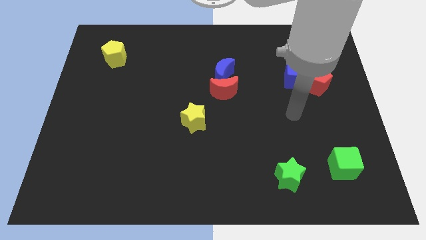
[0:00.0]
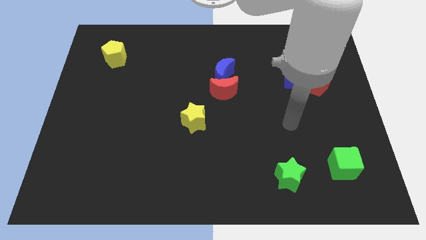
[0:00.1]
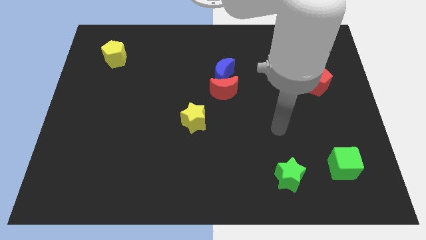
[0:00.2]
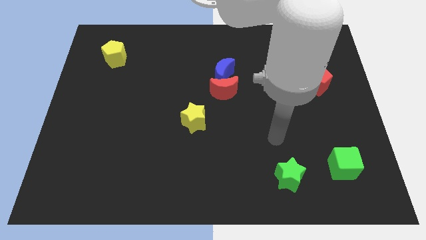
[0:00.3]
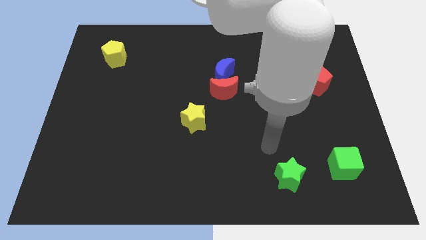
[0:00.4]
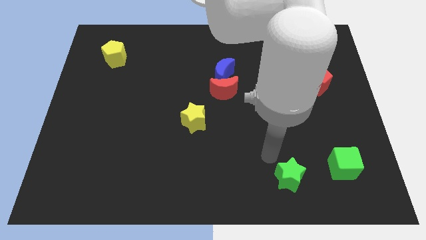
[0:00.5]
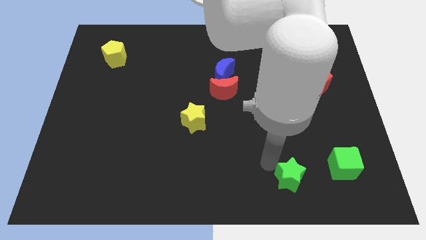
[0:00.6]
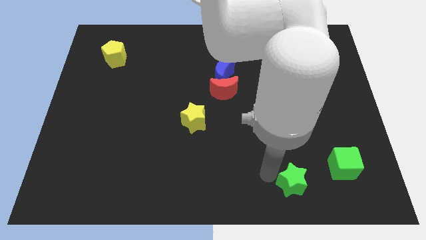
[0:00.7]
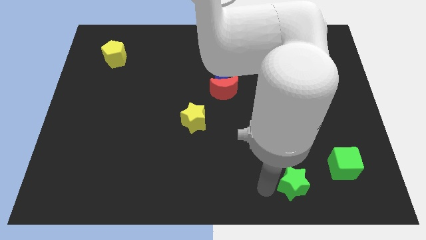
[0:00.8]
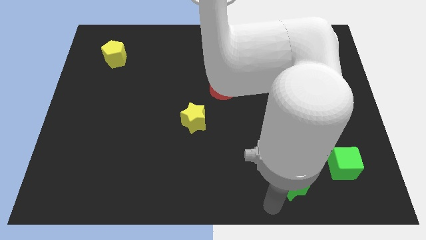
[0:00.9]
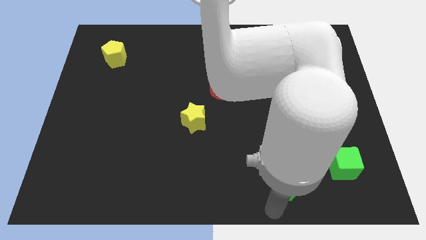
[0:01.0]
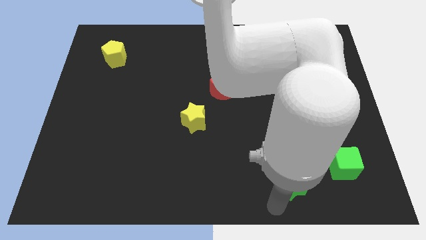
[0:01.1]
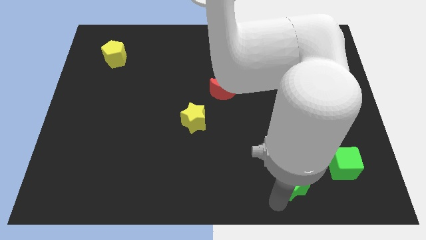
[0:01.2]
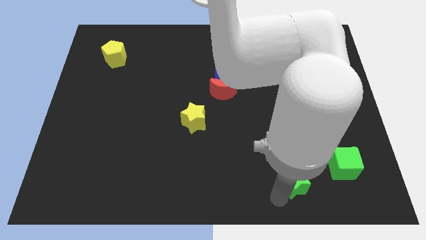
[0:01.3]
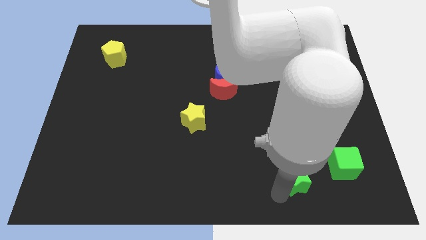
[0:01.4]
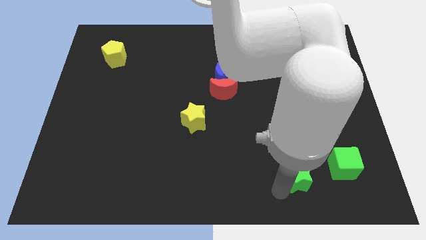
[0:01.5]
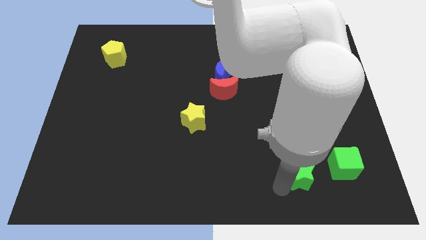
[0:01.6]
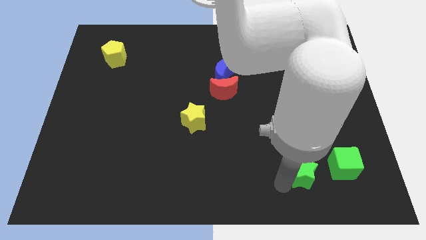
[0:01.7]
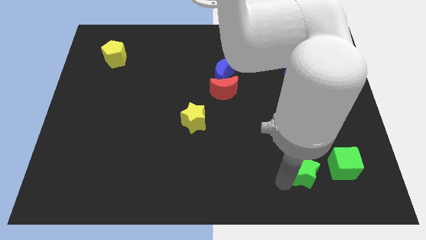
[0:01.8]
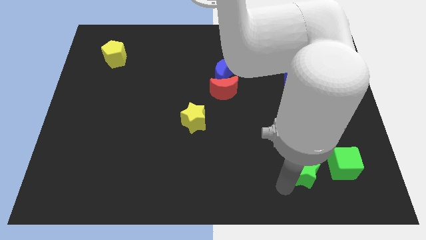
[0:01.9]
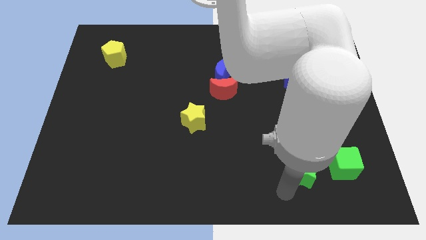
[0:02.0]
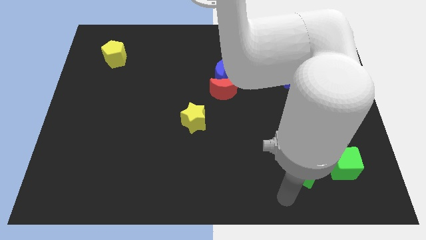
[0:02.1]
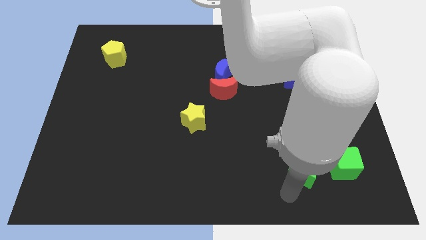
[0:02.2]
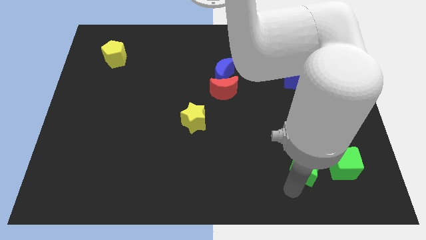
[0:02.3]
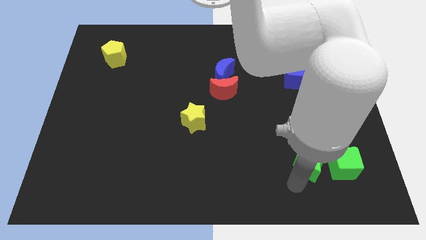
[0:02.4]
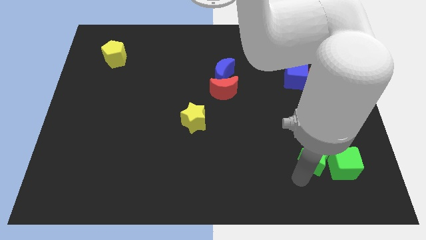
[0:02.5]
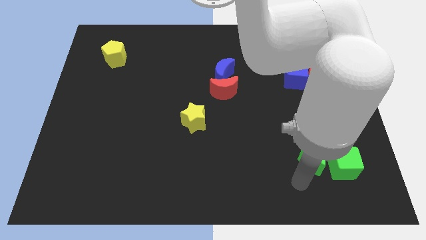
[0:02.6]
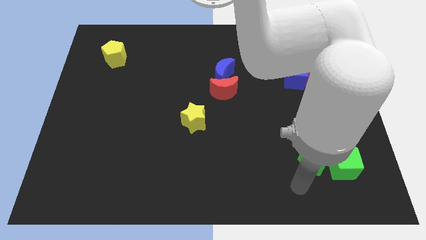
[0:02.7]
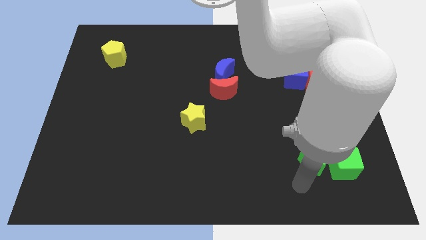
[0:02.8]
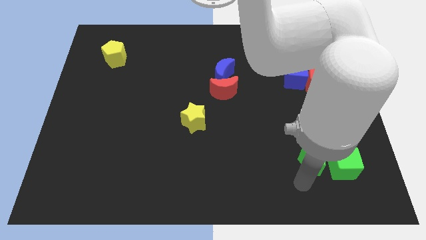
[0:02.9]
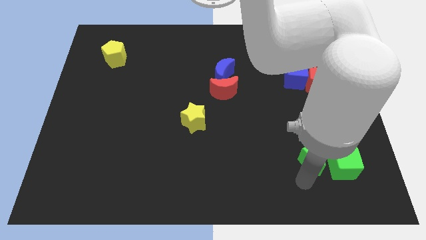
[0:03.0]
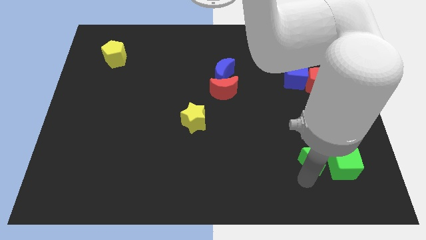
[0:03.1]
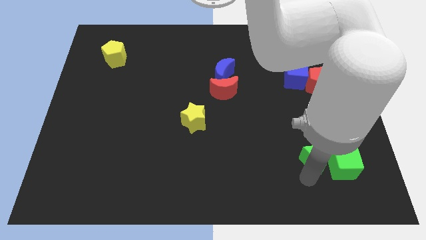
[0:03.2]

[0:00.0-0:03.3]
slightly push the green star up and then to the right

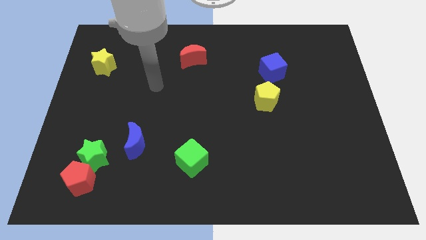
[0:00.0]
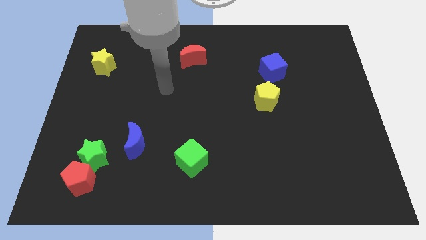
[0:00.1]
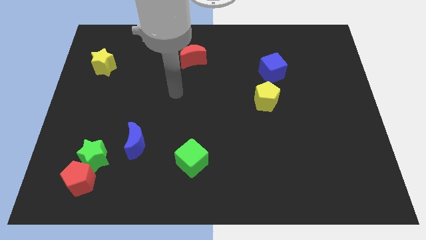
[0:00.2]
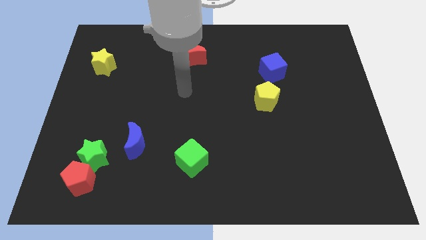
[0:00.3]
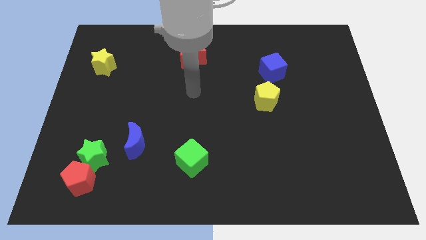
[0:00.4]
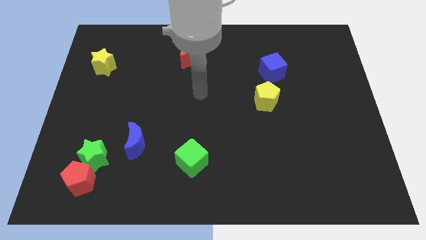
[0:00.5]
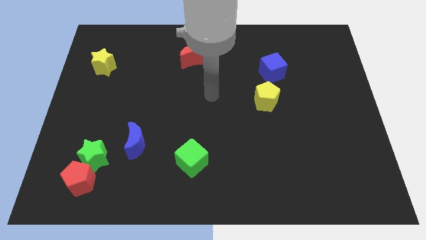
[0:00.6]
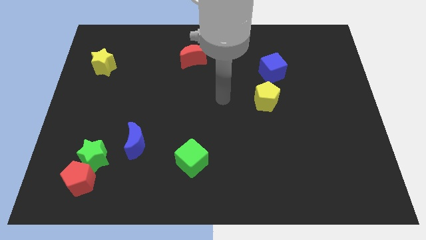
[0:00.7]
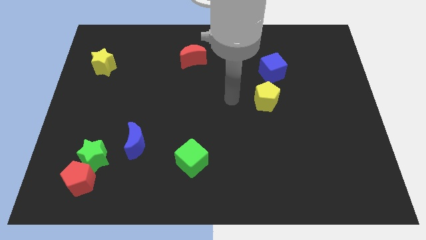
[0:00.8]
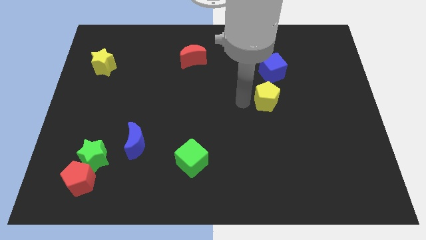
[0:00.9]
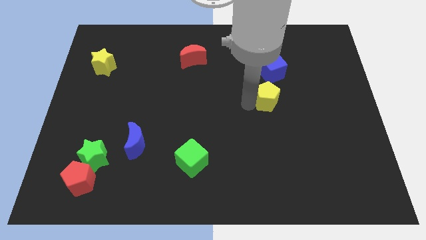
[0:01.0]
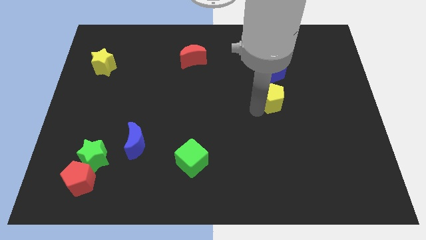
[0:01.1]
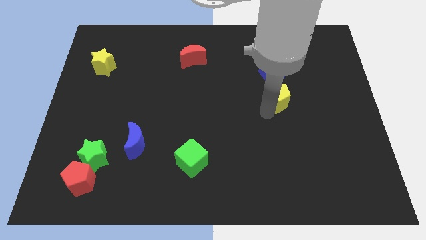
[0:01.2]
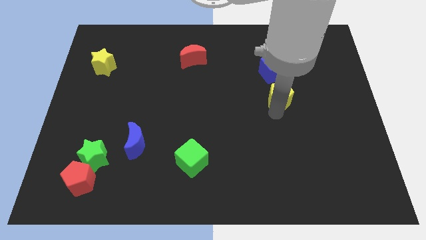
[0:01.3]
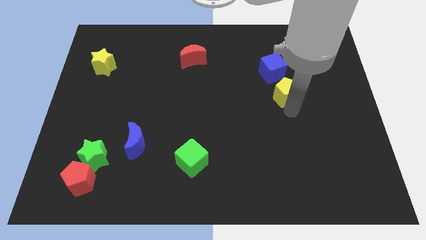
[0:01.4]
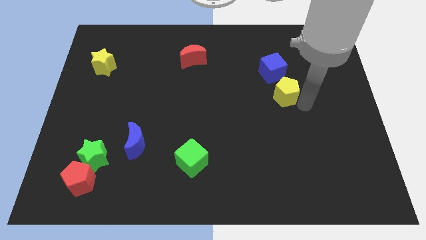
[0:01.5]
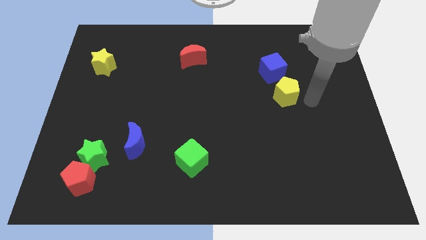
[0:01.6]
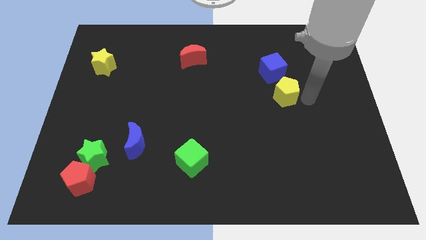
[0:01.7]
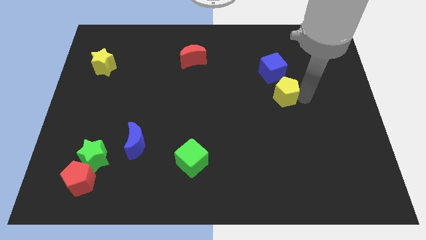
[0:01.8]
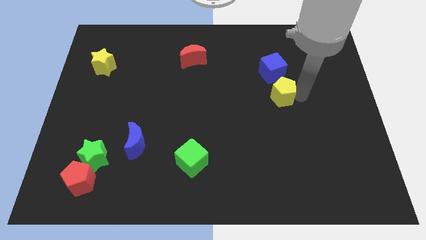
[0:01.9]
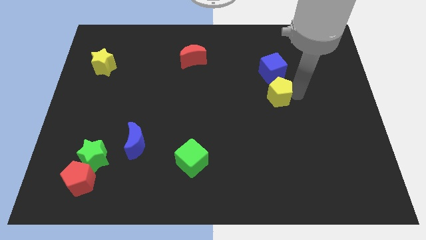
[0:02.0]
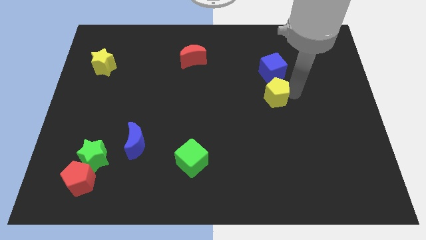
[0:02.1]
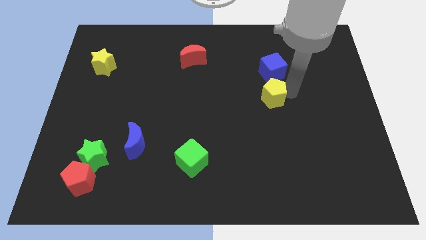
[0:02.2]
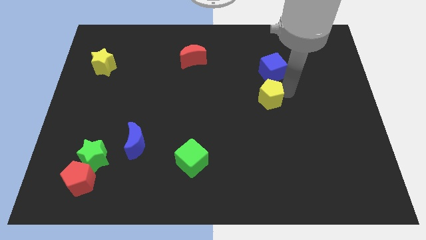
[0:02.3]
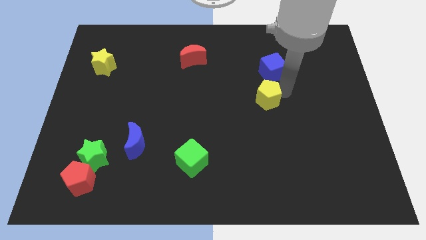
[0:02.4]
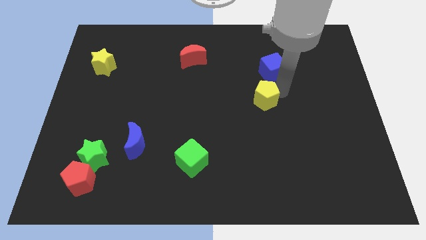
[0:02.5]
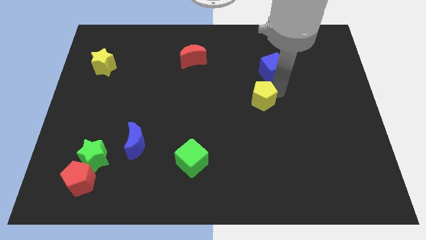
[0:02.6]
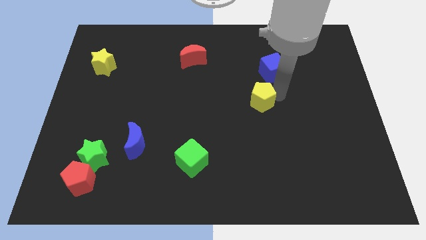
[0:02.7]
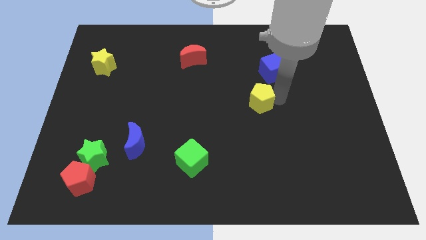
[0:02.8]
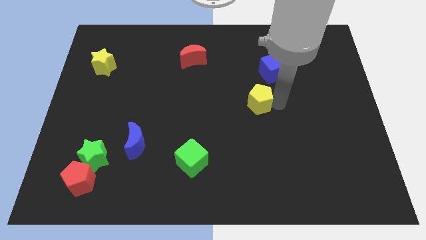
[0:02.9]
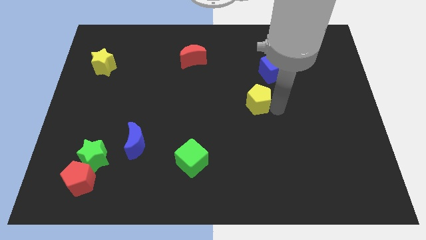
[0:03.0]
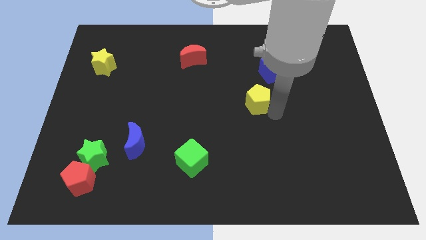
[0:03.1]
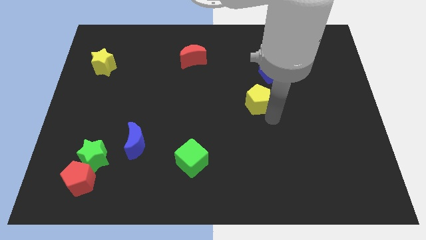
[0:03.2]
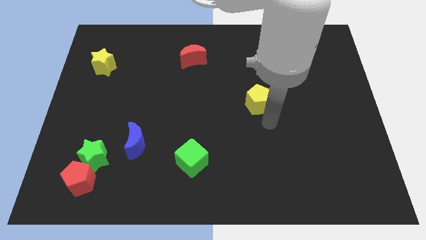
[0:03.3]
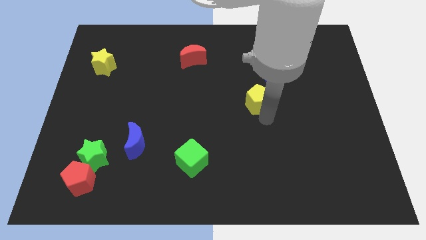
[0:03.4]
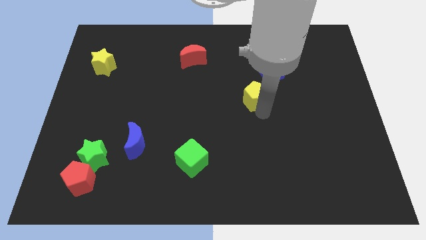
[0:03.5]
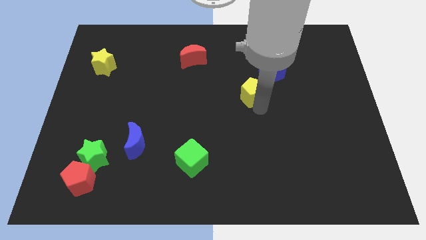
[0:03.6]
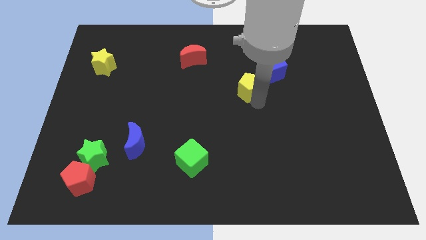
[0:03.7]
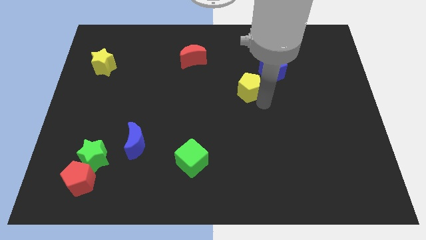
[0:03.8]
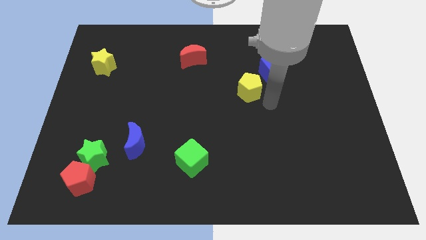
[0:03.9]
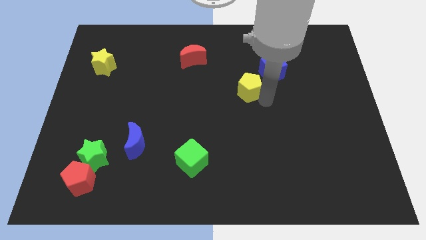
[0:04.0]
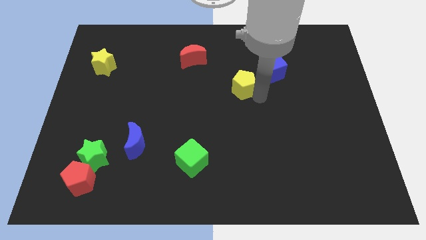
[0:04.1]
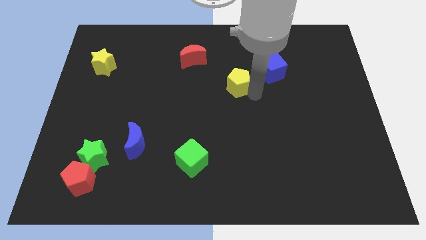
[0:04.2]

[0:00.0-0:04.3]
slightly move the yellow pentagon diagonally upwards and to the left
